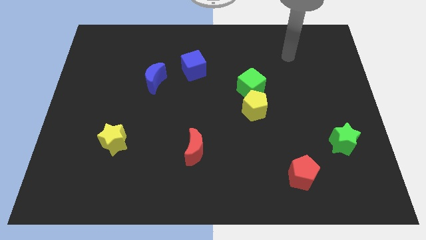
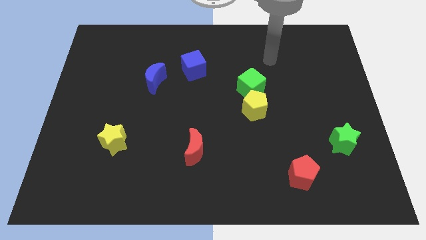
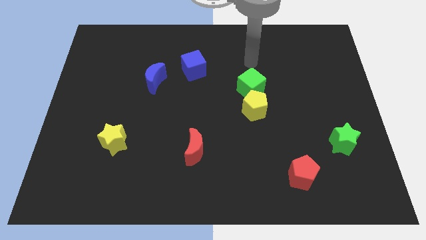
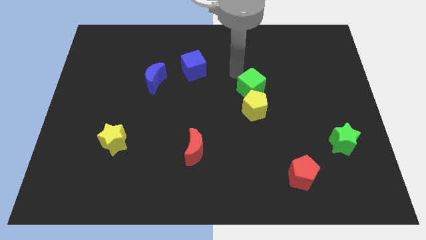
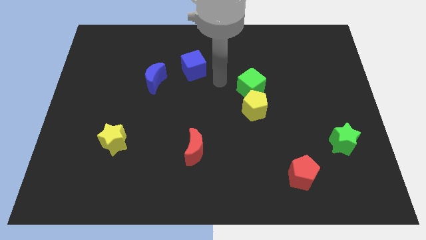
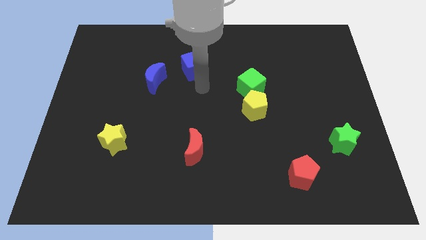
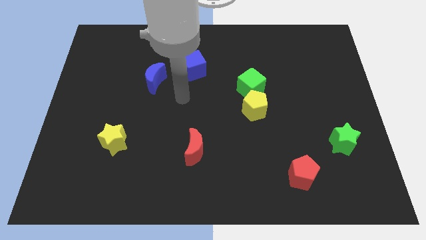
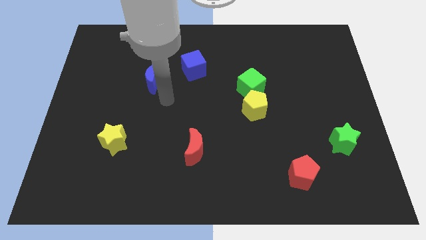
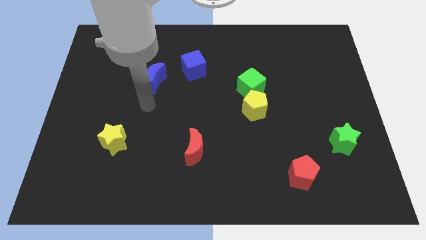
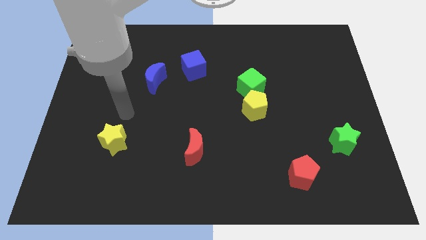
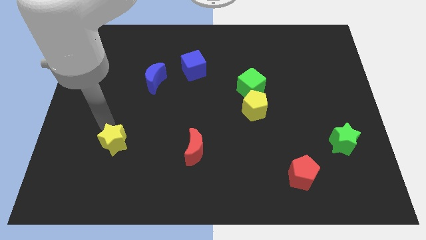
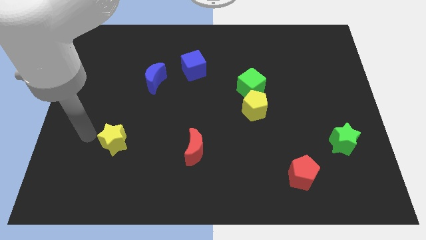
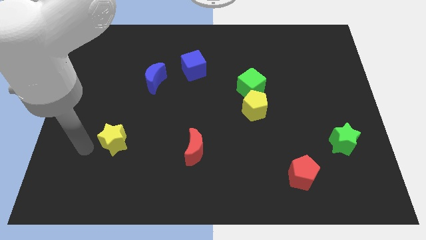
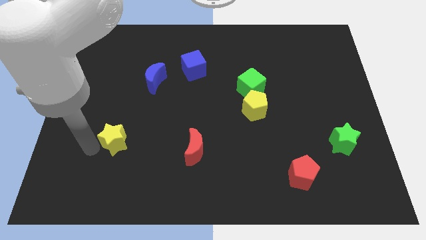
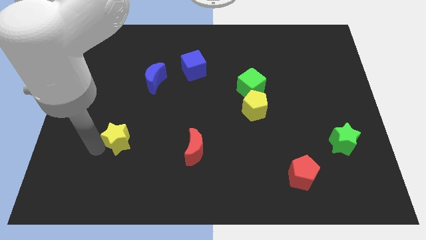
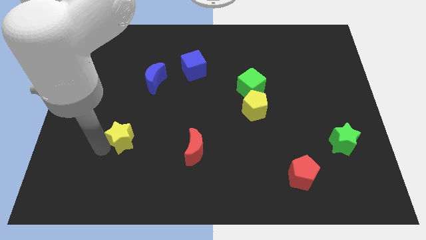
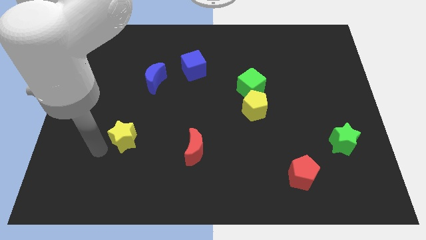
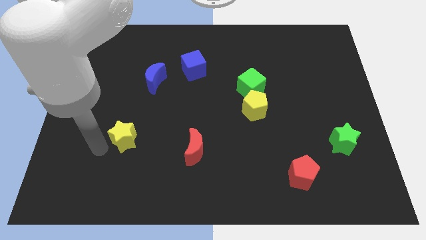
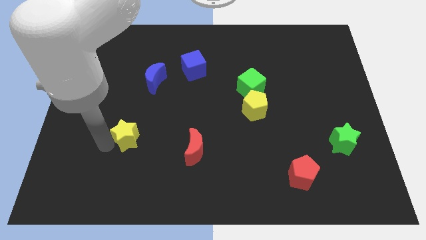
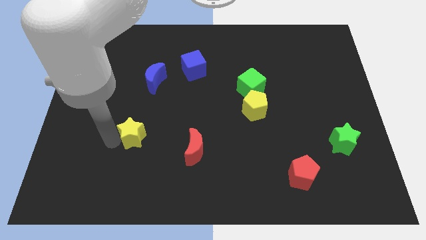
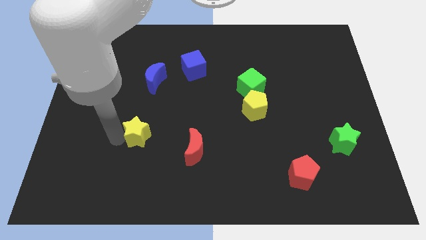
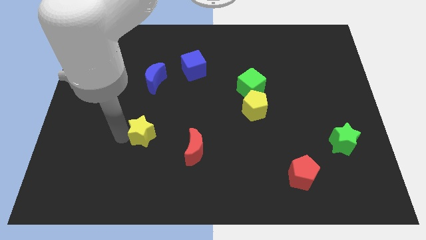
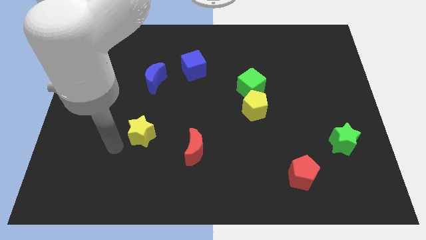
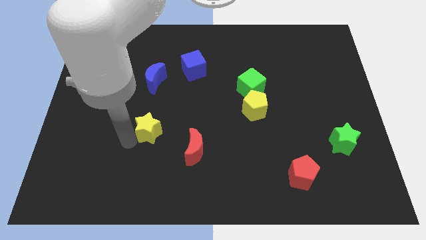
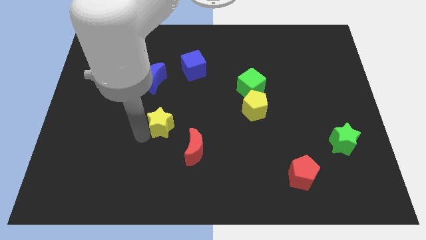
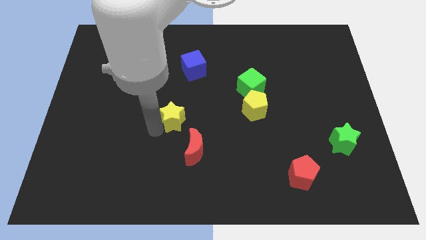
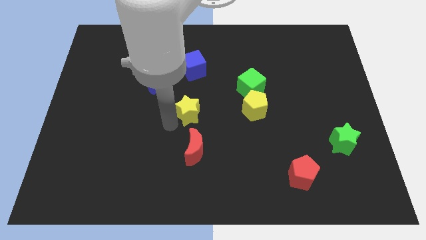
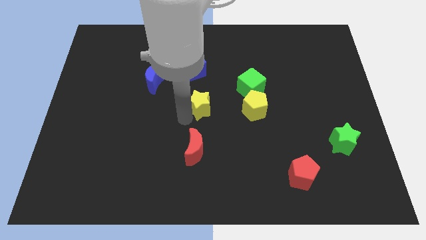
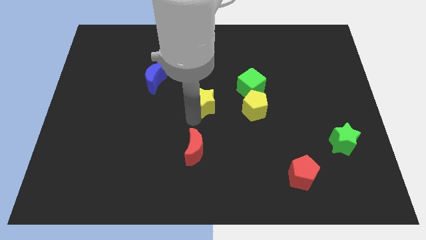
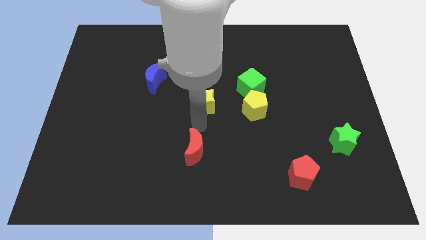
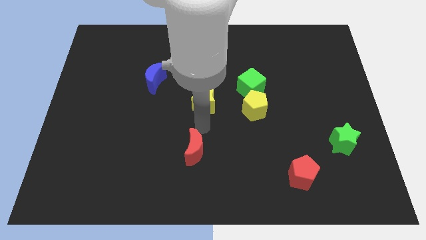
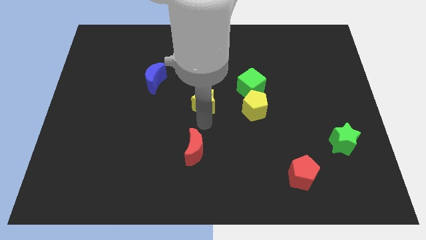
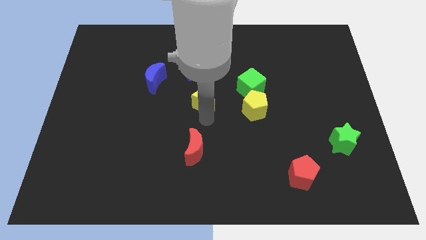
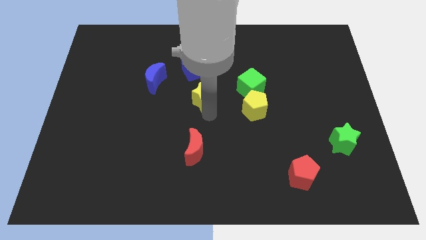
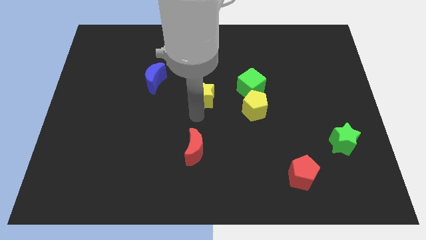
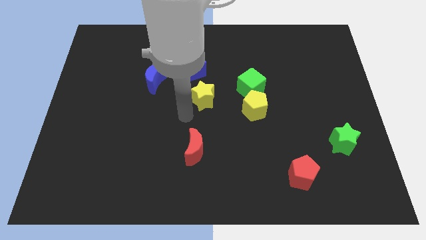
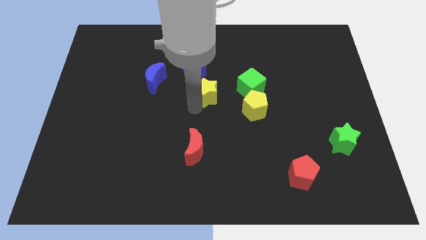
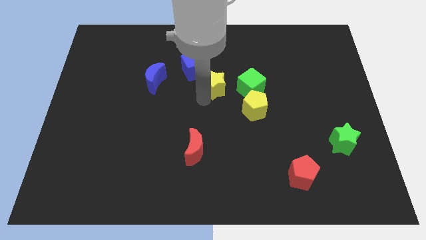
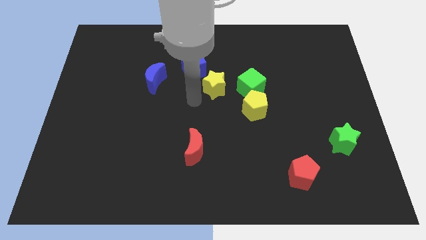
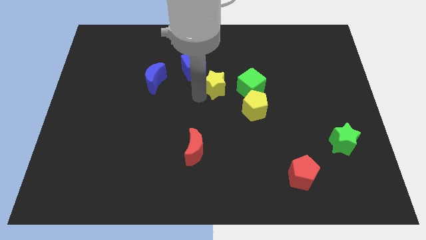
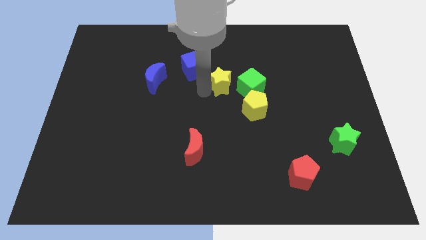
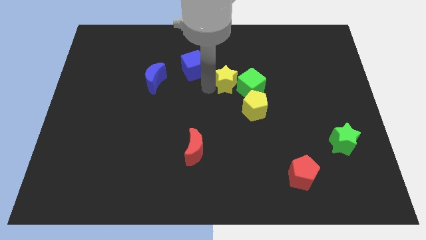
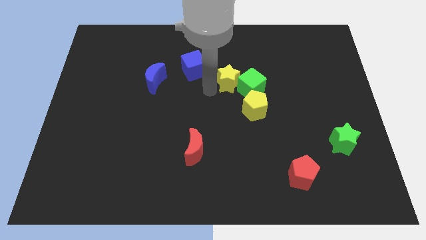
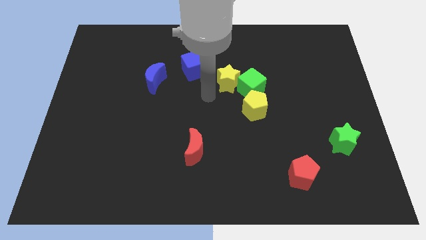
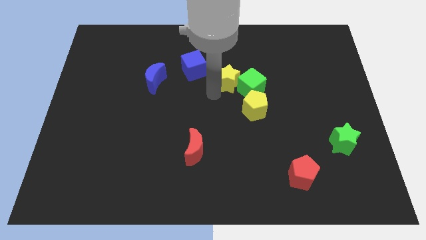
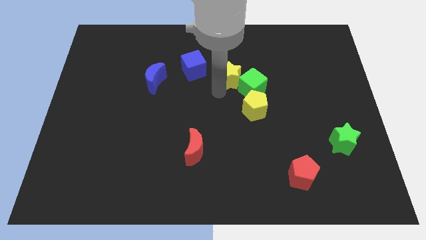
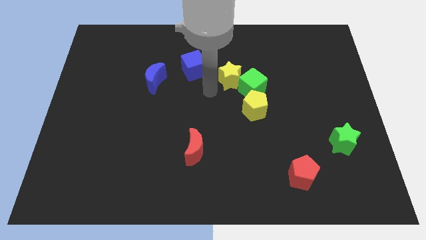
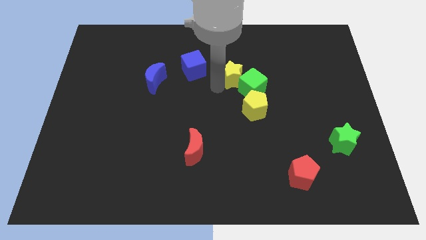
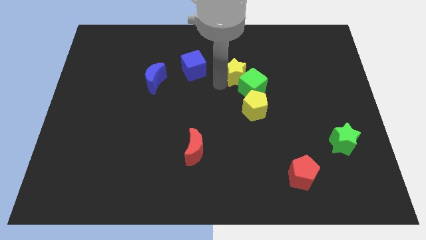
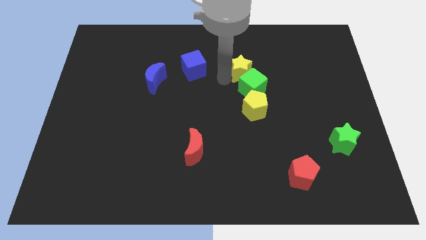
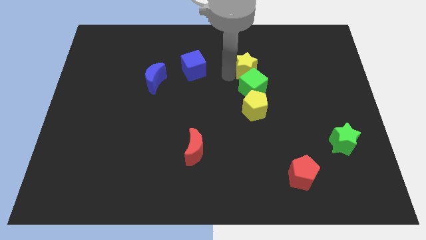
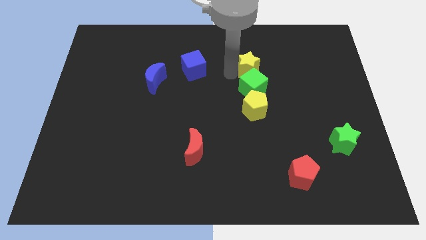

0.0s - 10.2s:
put the yellow star diagonally up and to the right of the green cube

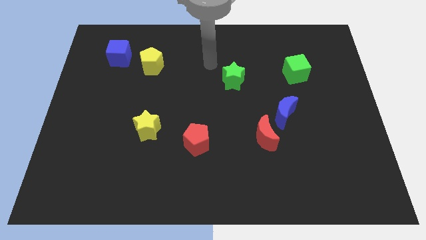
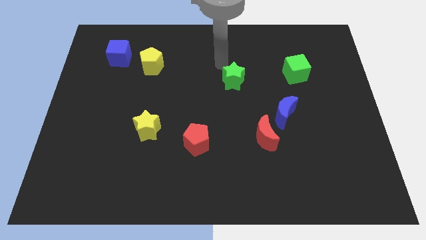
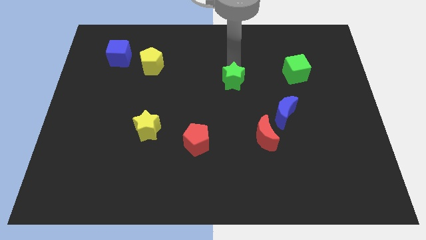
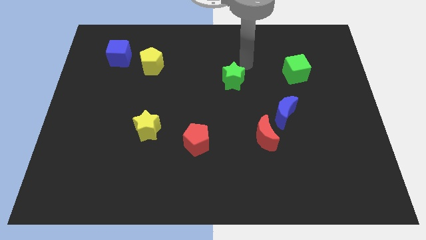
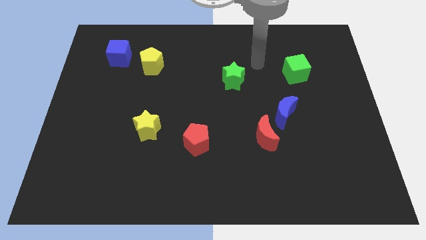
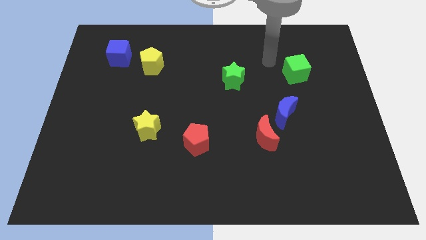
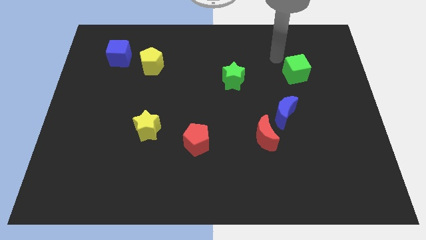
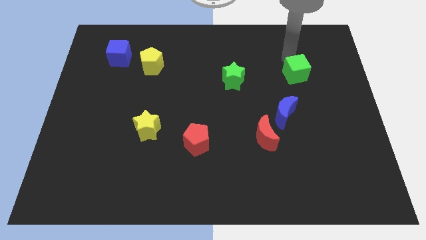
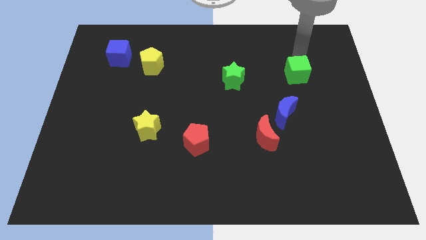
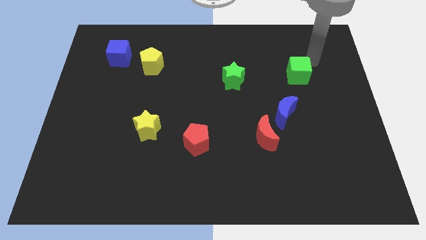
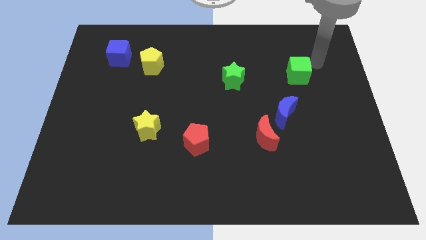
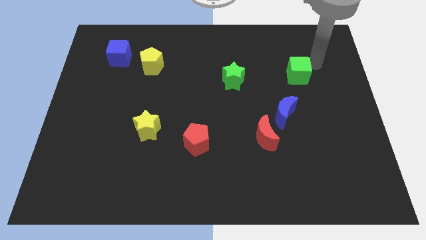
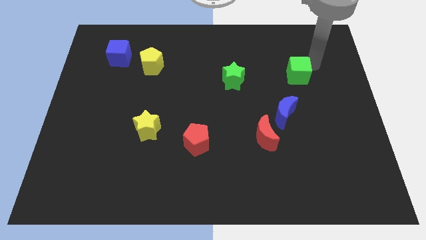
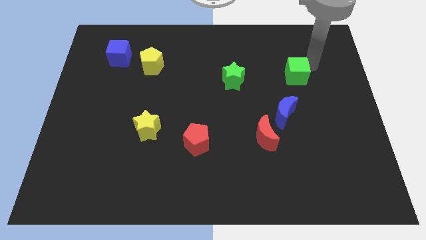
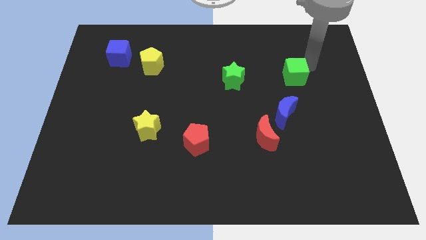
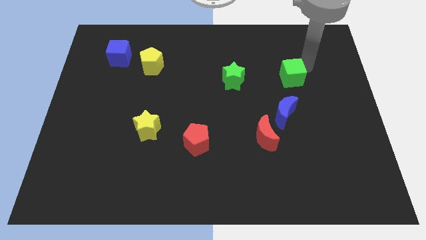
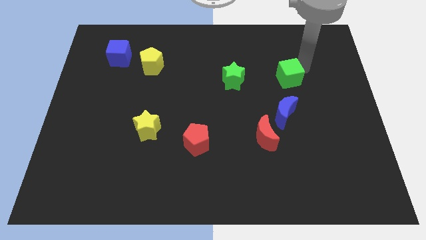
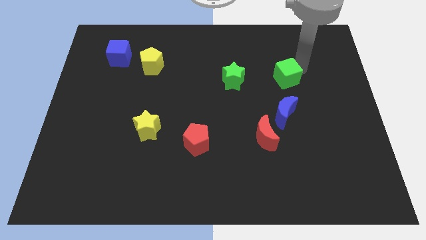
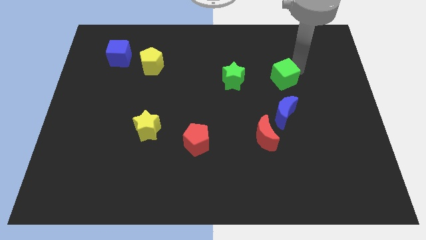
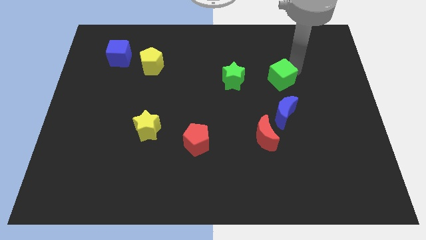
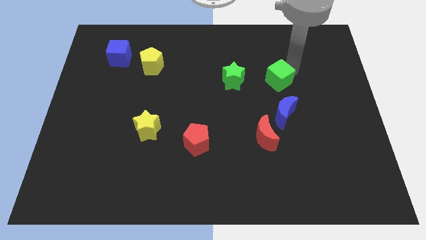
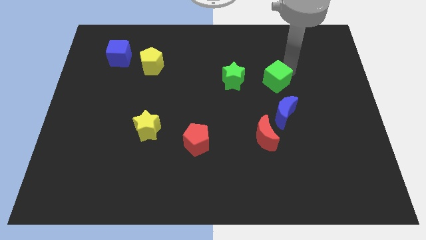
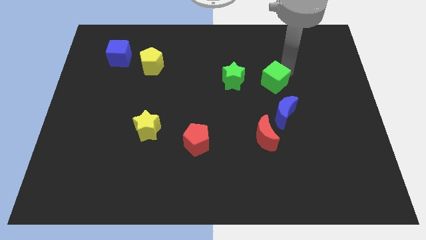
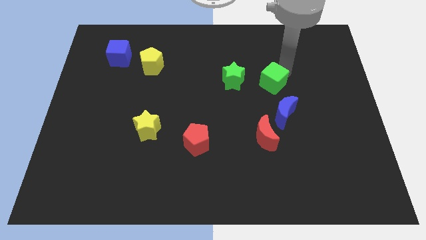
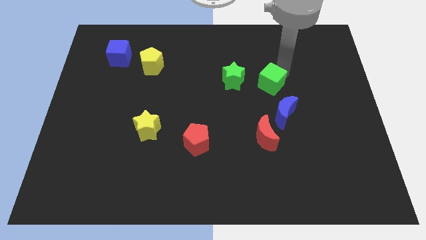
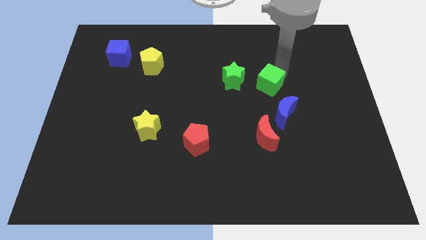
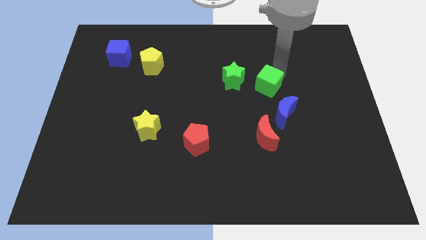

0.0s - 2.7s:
move the green cube to the top of the red moon
